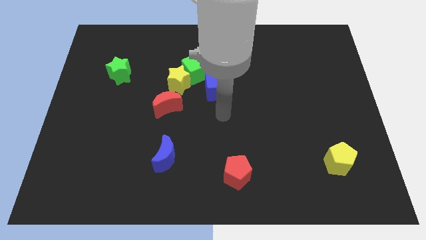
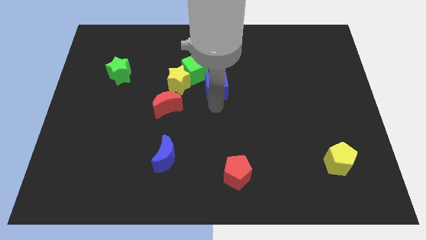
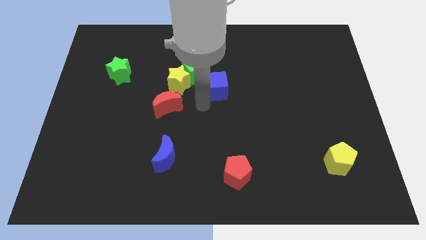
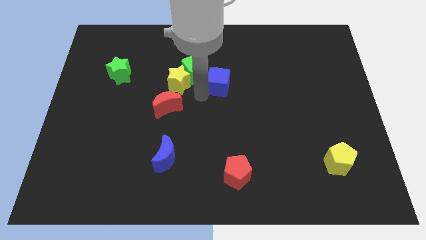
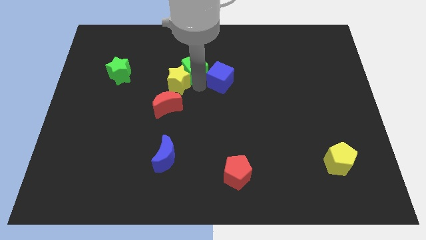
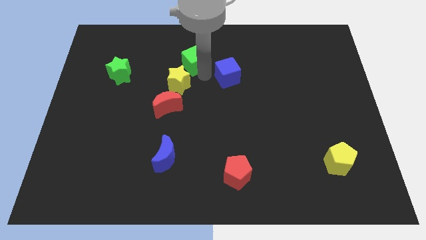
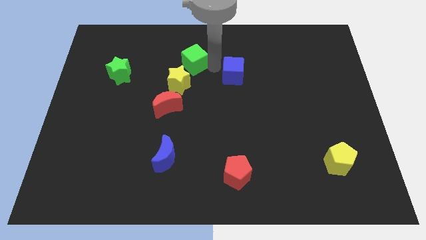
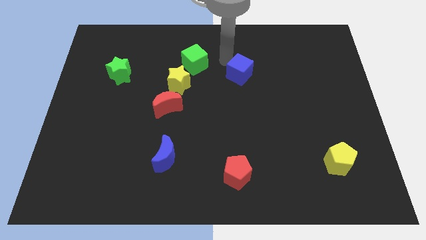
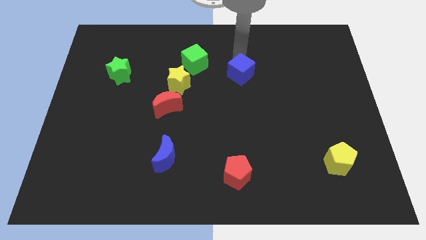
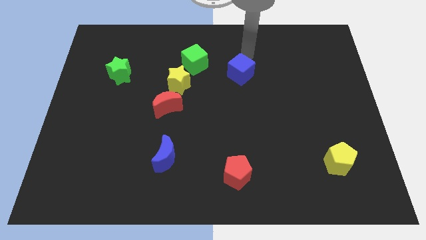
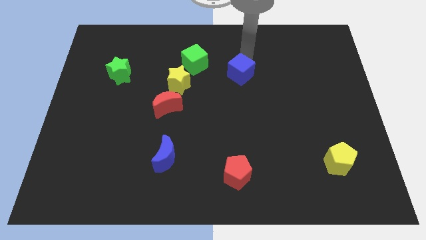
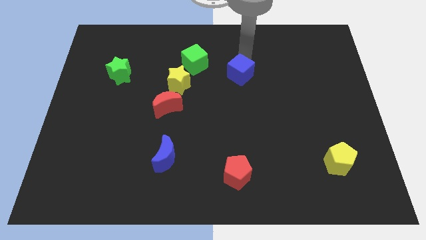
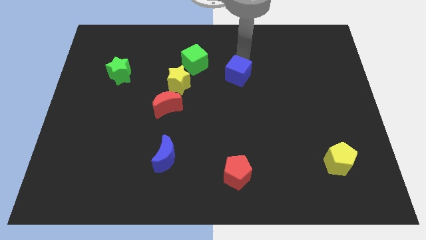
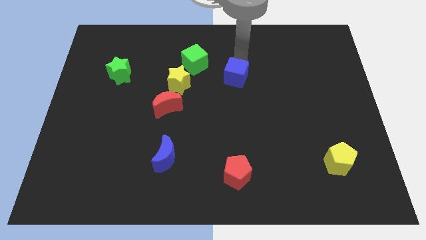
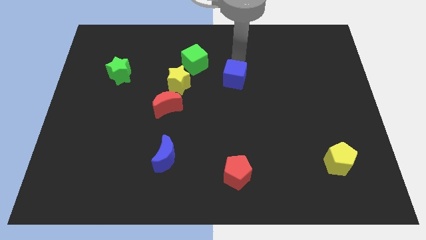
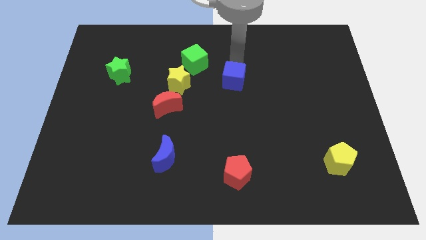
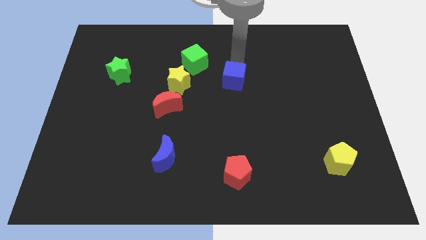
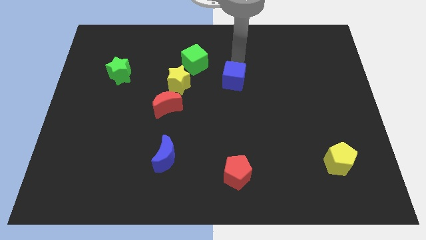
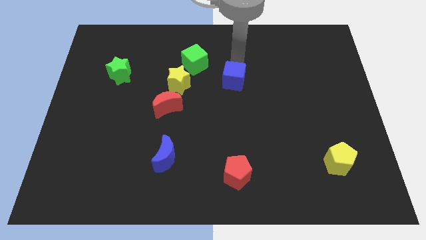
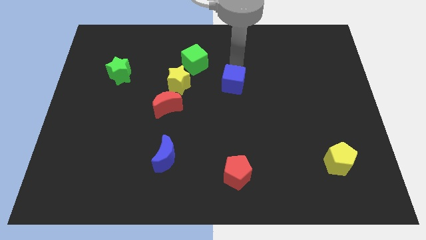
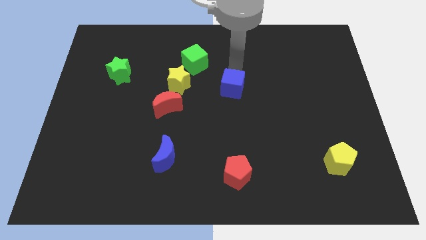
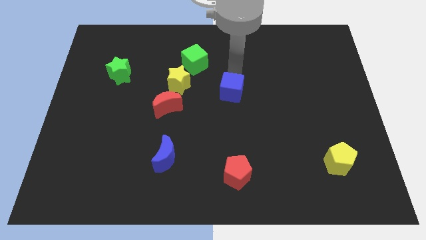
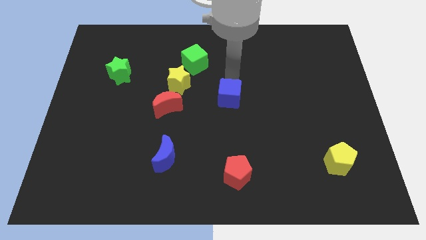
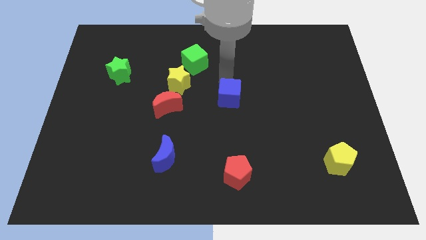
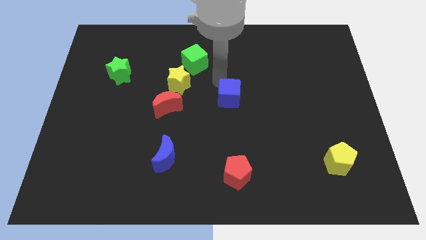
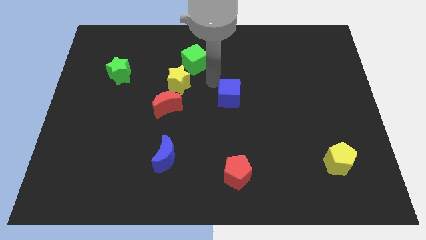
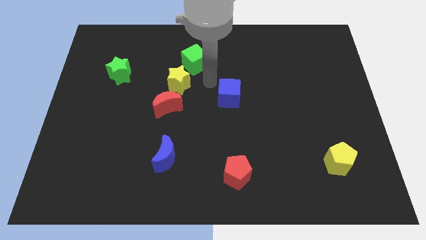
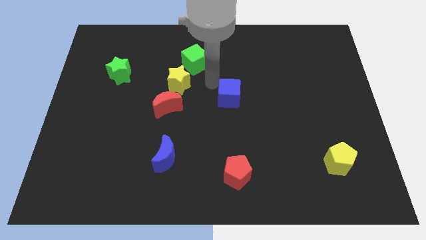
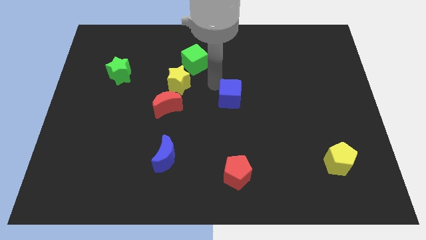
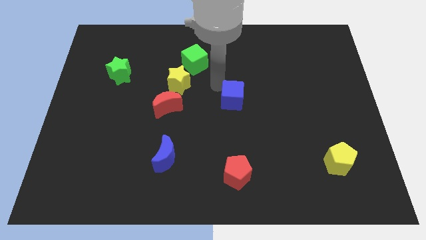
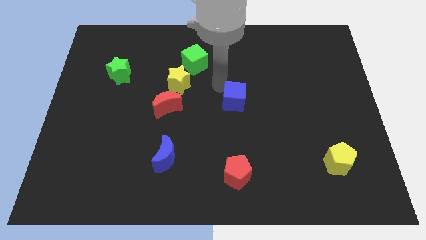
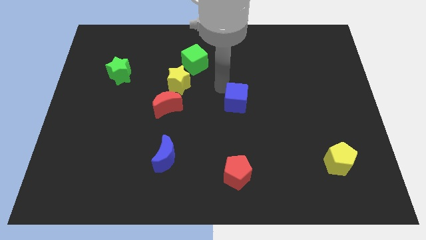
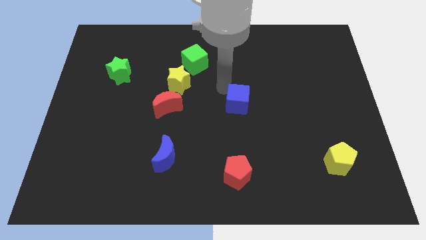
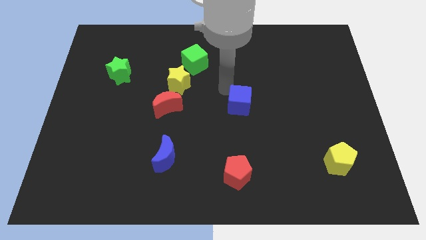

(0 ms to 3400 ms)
slightly slide the blue cube downwards and right

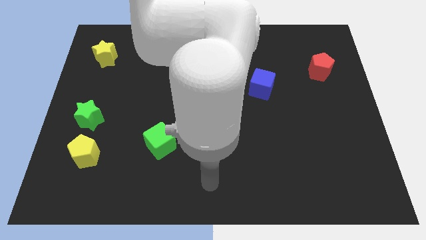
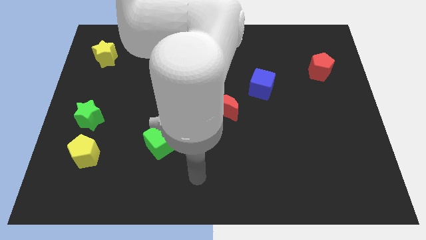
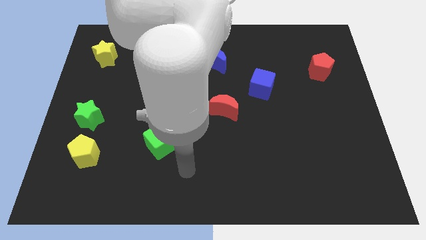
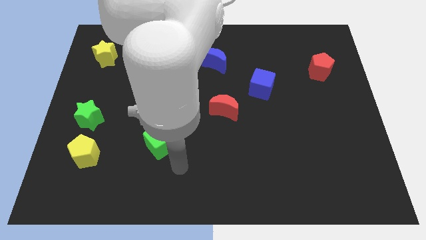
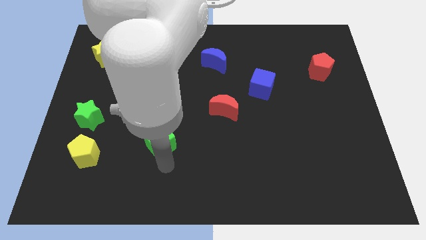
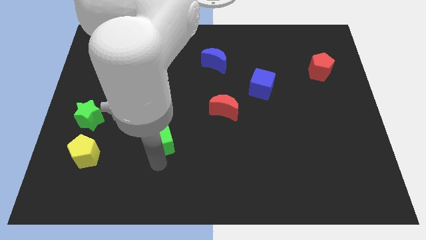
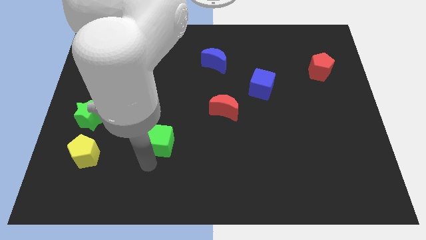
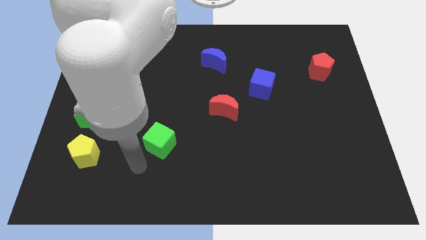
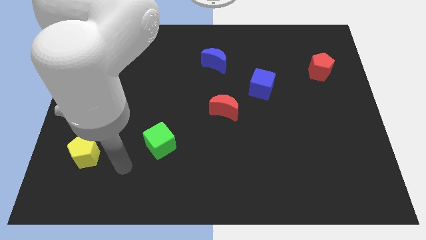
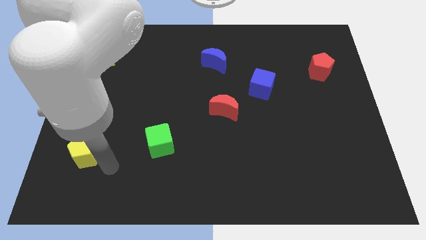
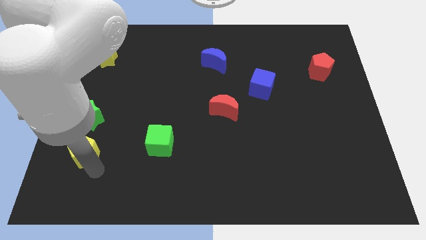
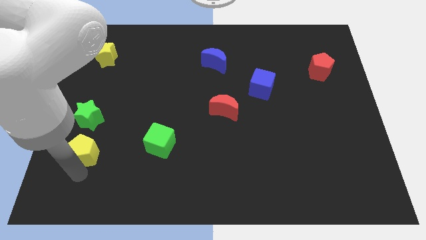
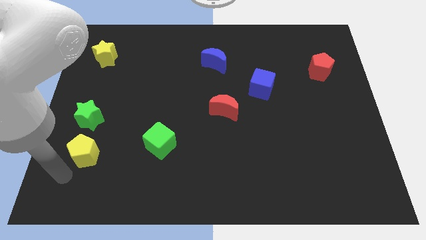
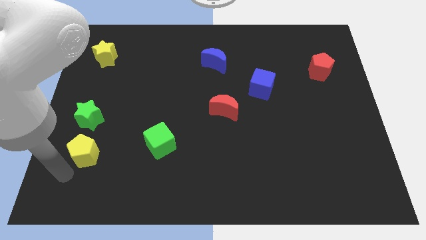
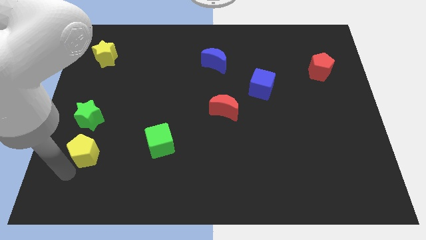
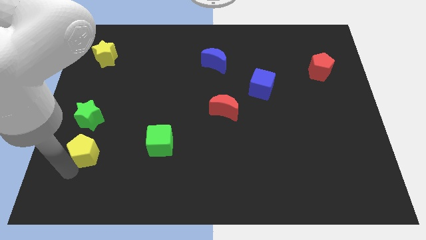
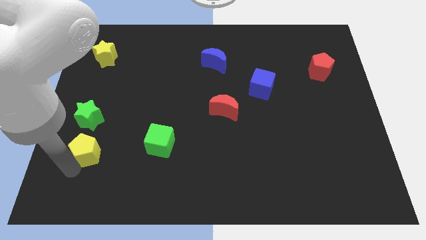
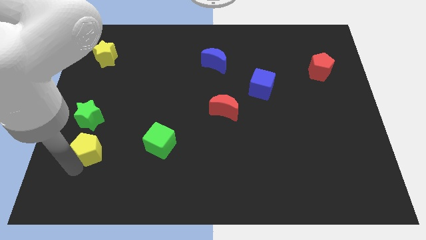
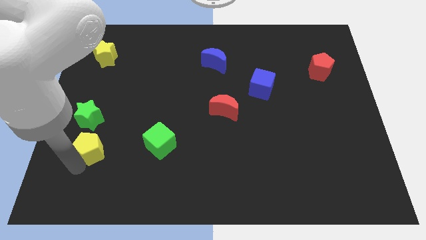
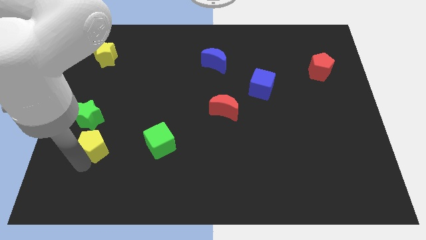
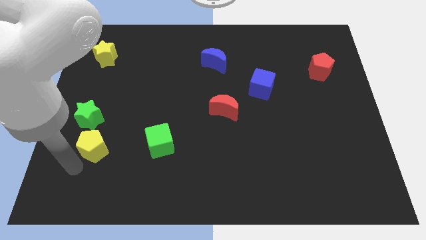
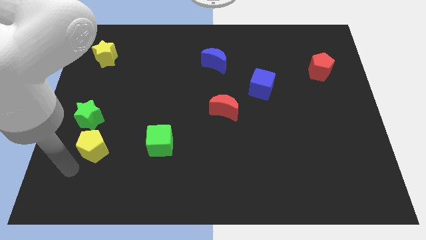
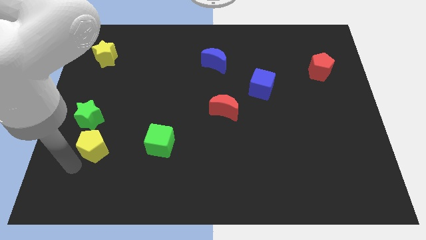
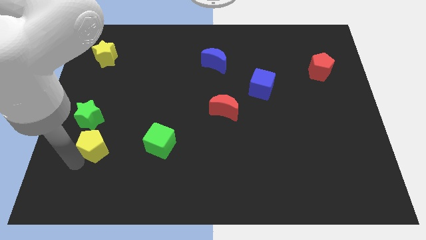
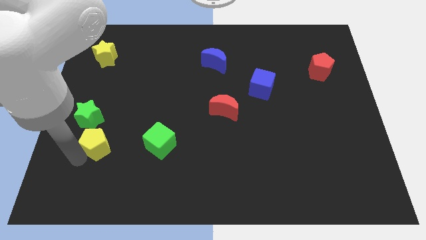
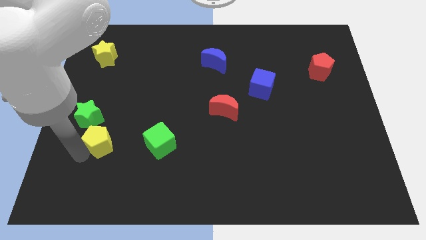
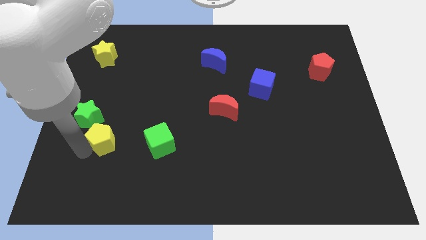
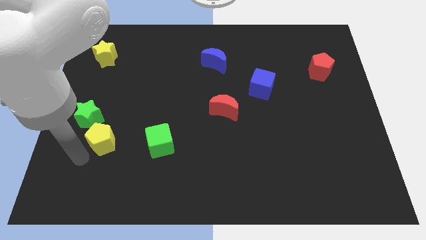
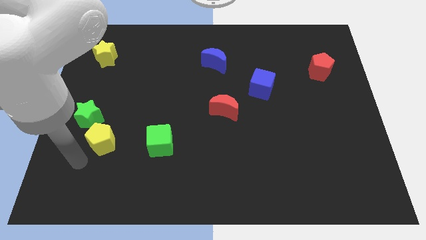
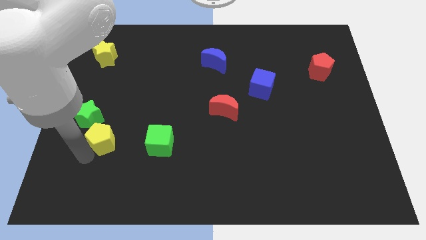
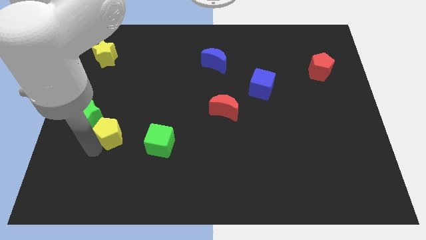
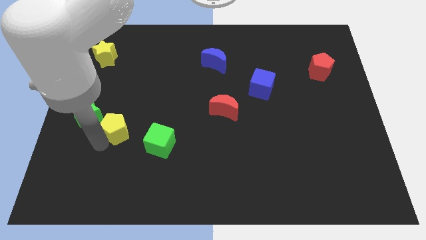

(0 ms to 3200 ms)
move the yellow pentagon up and right diagonally a little

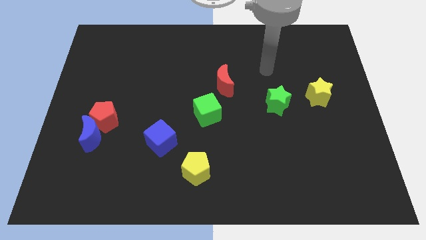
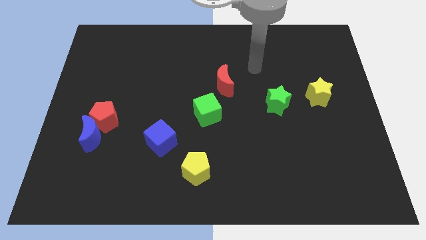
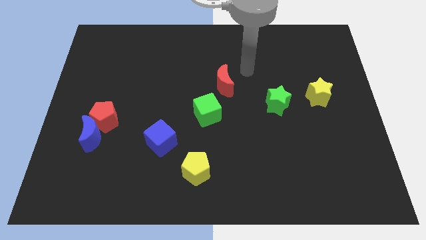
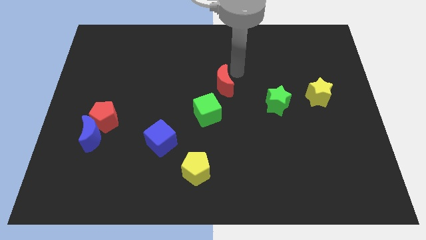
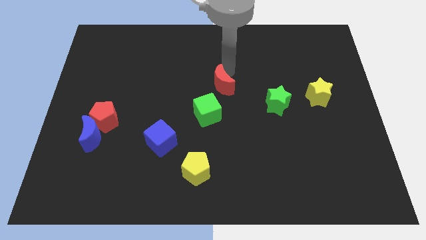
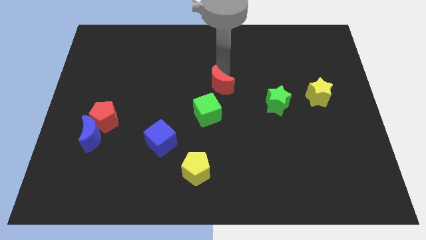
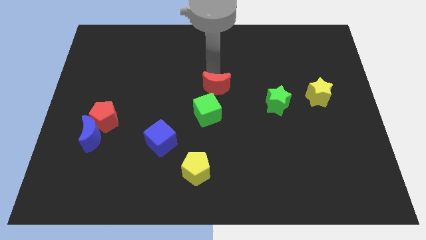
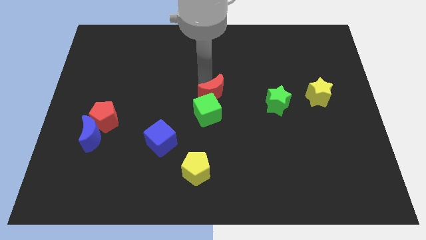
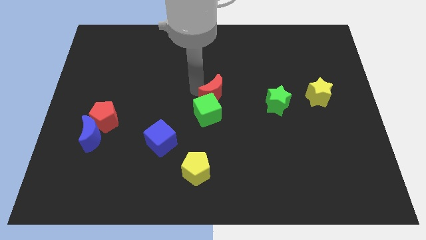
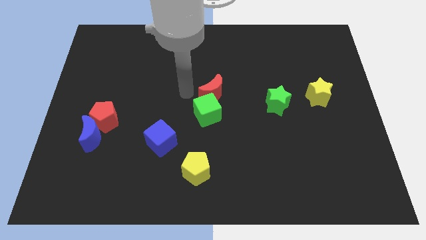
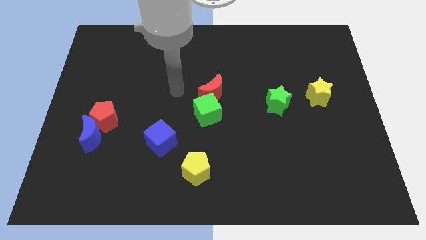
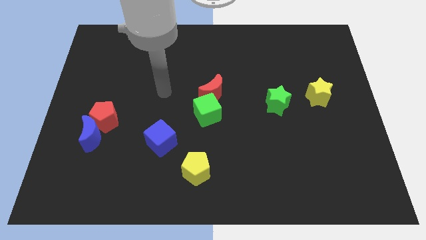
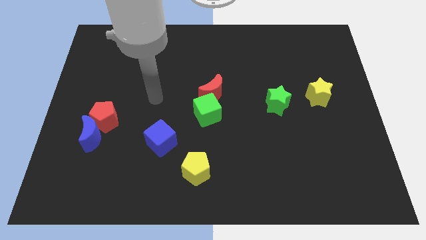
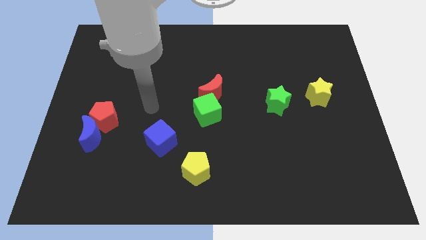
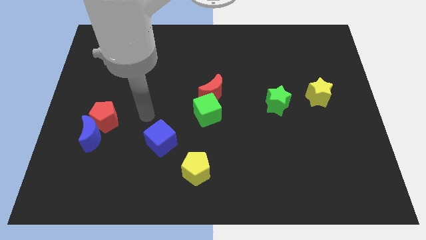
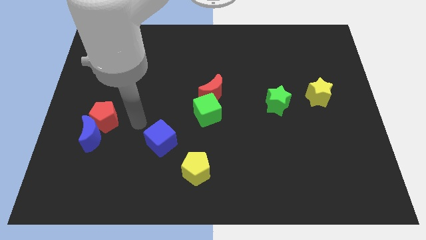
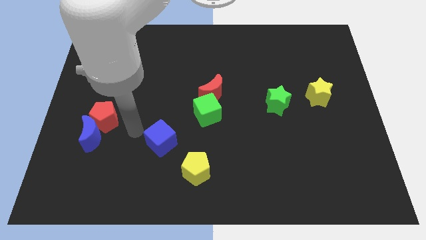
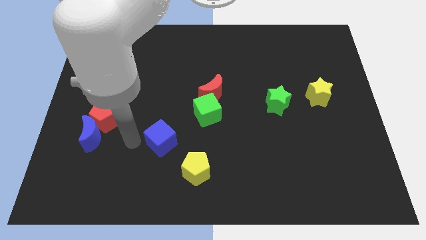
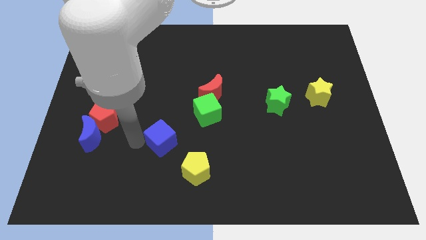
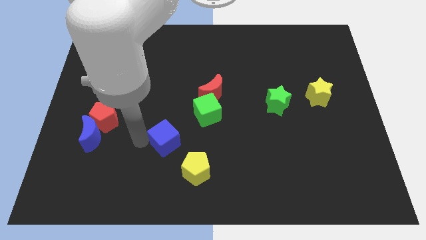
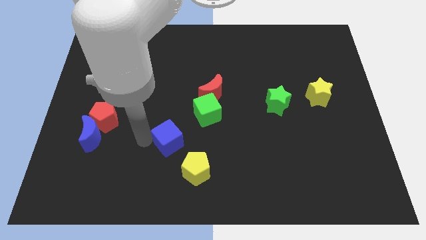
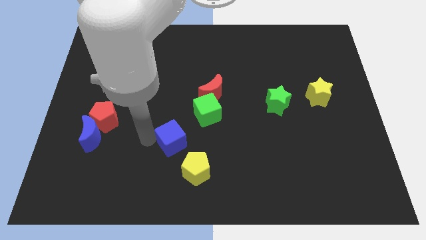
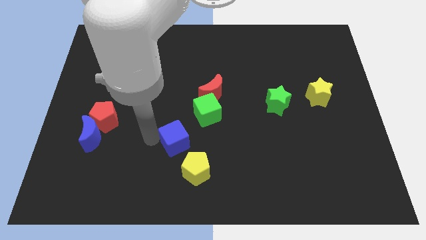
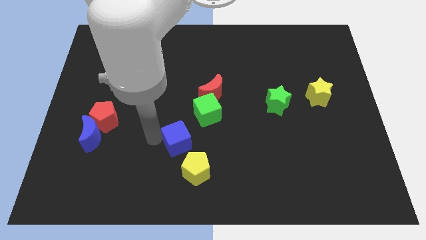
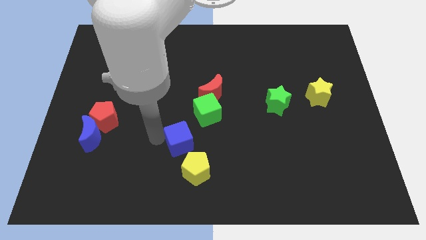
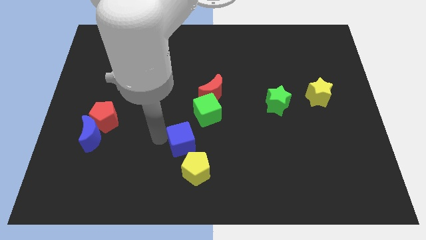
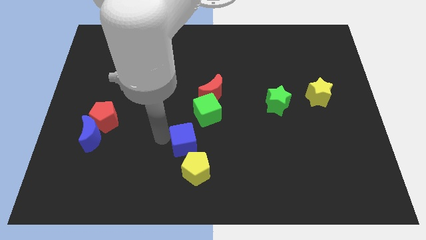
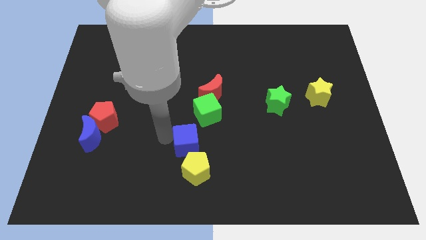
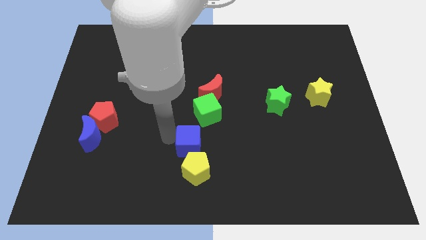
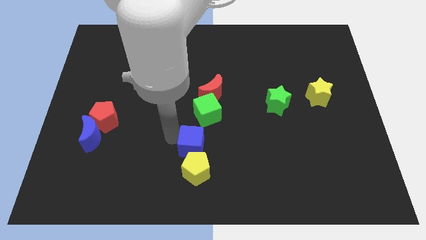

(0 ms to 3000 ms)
push the blue cube to the right somewhat
